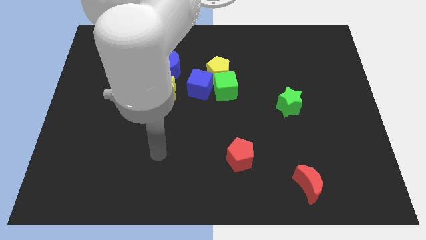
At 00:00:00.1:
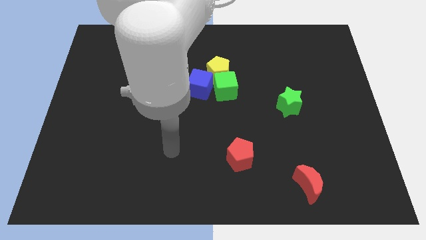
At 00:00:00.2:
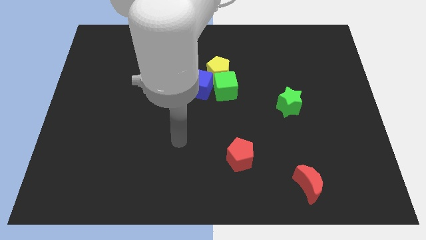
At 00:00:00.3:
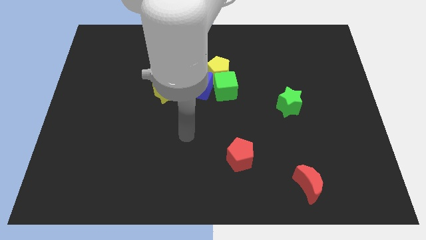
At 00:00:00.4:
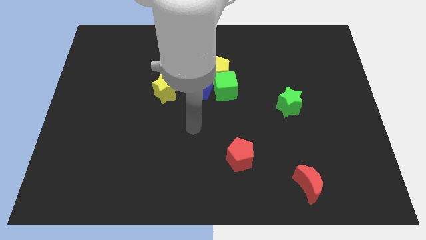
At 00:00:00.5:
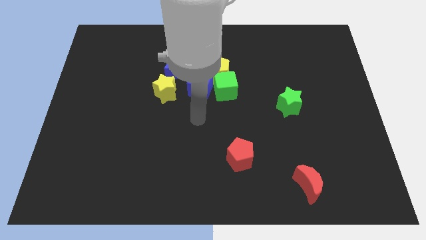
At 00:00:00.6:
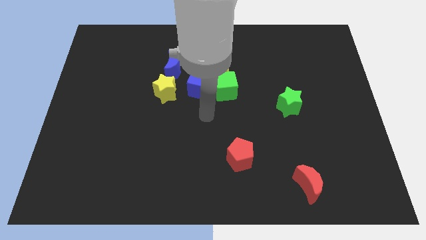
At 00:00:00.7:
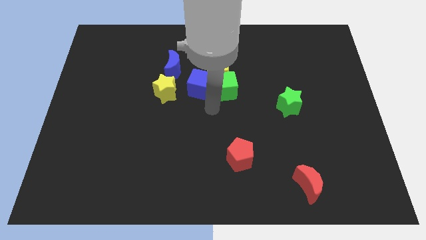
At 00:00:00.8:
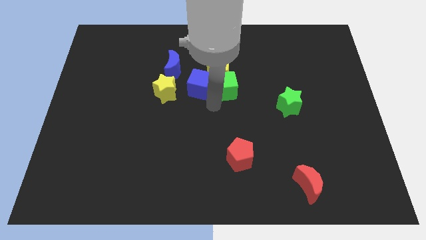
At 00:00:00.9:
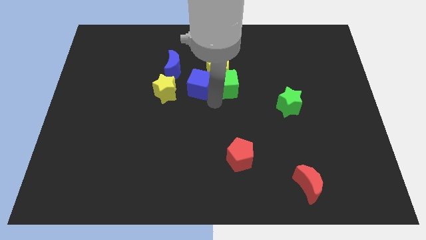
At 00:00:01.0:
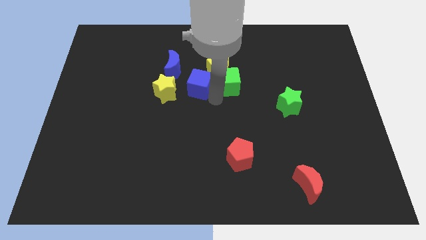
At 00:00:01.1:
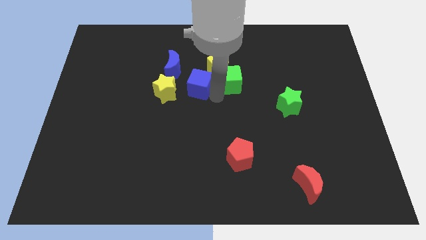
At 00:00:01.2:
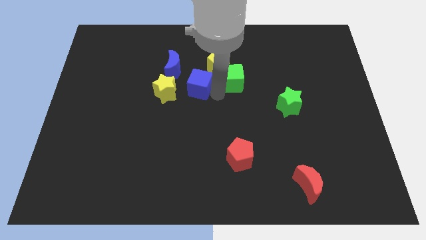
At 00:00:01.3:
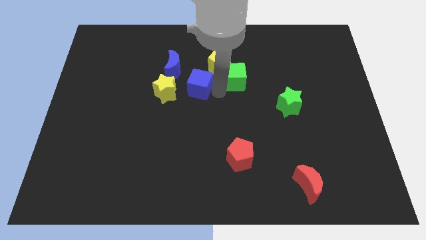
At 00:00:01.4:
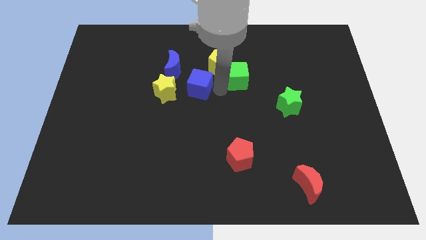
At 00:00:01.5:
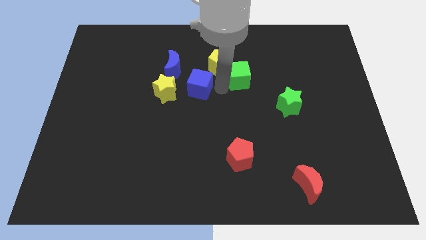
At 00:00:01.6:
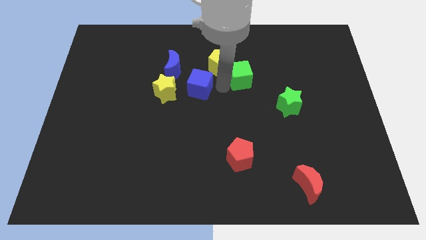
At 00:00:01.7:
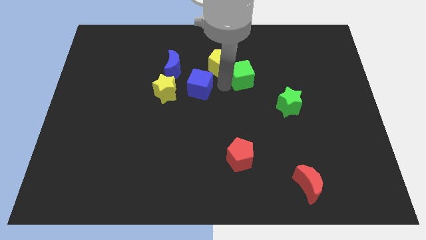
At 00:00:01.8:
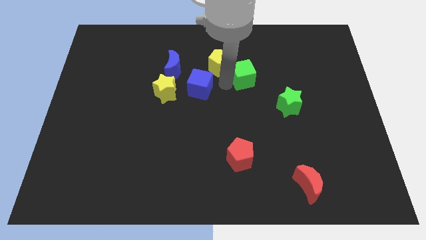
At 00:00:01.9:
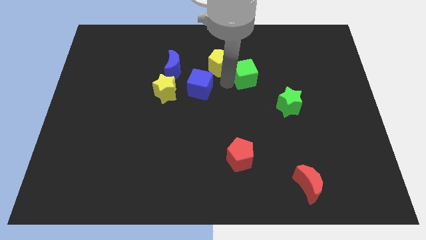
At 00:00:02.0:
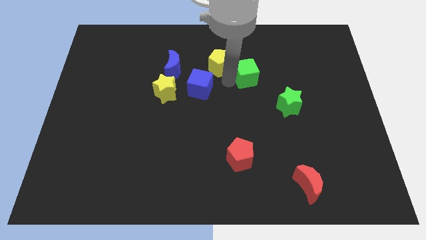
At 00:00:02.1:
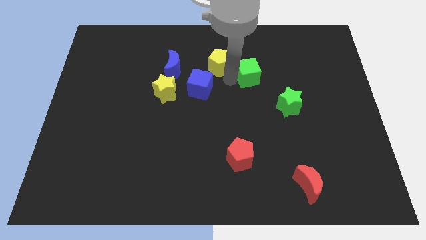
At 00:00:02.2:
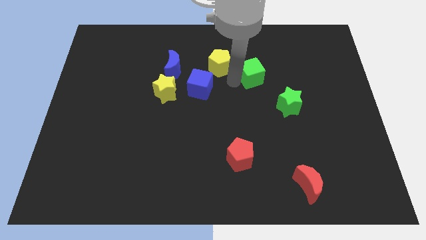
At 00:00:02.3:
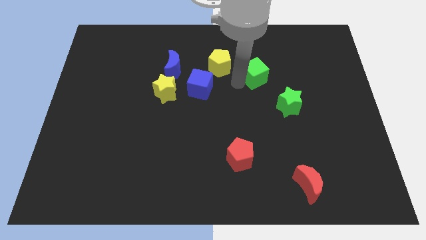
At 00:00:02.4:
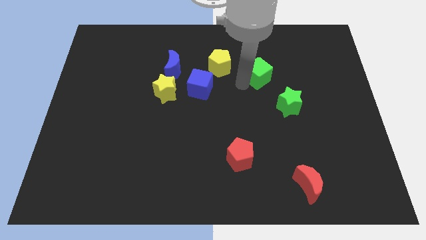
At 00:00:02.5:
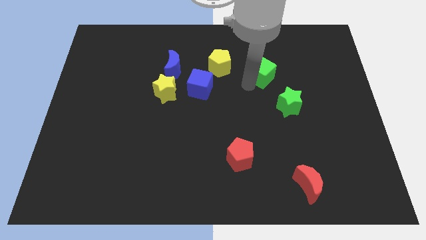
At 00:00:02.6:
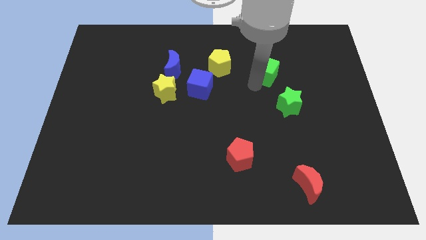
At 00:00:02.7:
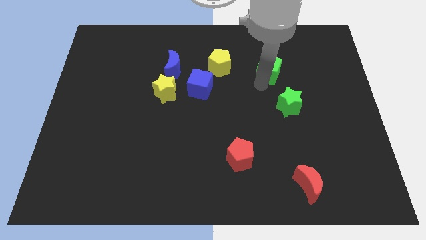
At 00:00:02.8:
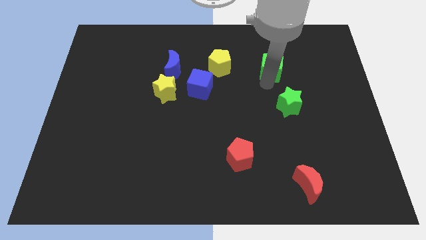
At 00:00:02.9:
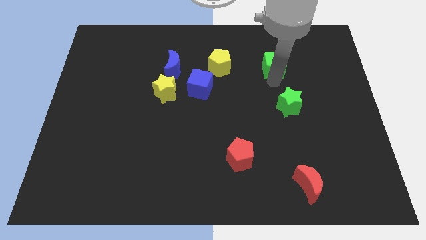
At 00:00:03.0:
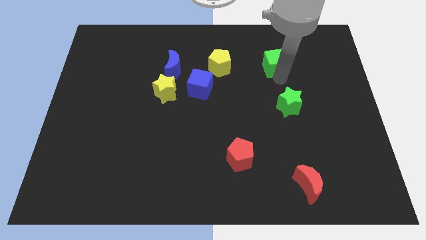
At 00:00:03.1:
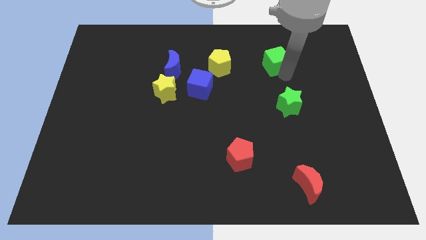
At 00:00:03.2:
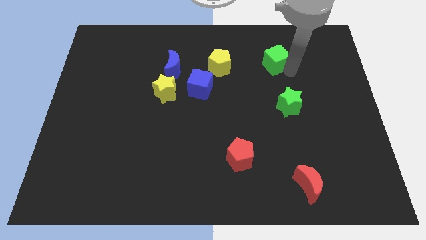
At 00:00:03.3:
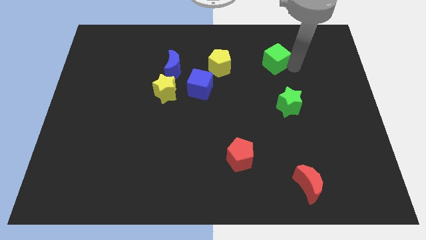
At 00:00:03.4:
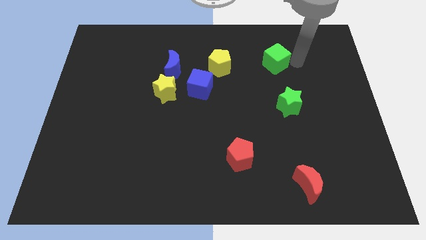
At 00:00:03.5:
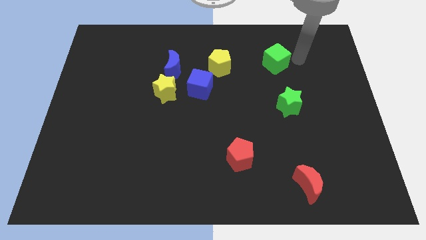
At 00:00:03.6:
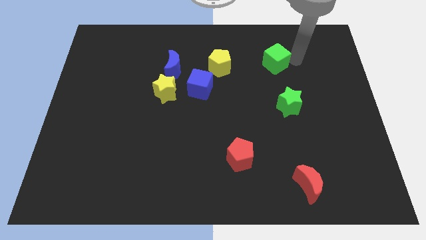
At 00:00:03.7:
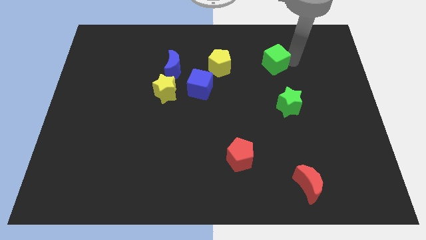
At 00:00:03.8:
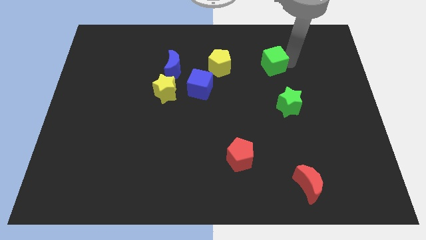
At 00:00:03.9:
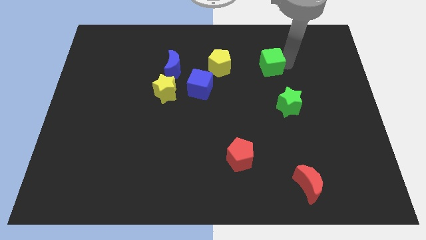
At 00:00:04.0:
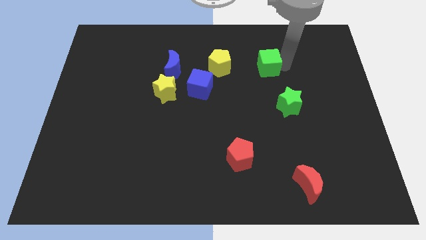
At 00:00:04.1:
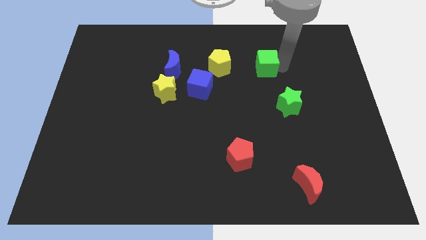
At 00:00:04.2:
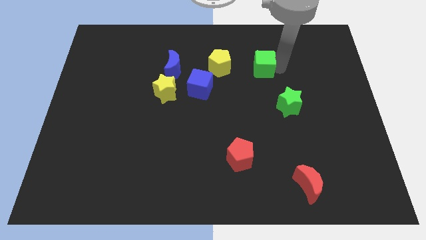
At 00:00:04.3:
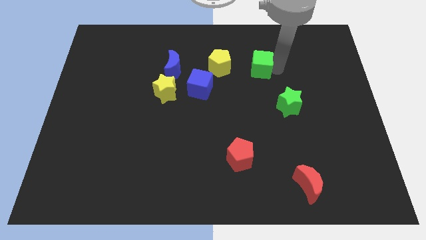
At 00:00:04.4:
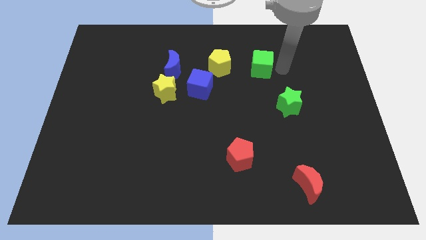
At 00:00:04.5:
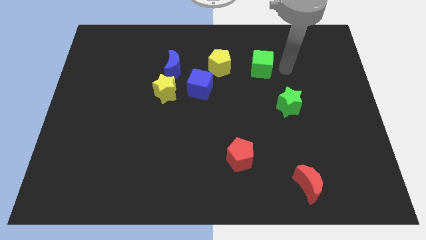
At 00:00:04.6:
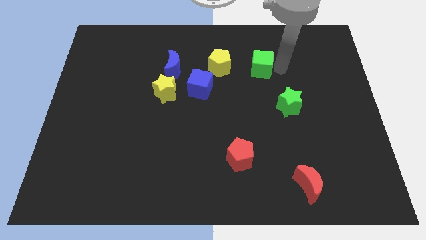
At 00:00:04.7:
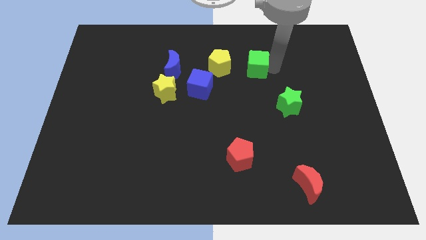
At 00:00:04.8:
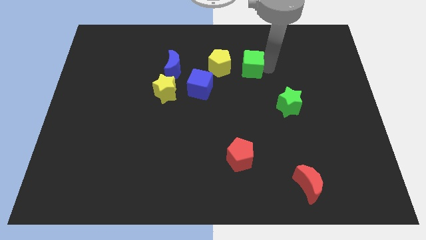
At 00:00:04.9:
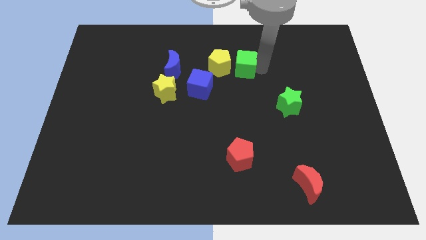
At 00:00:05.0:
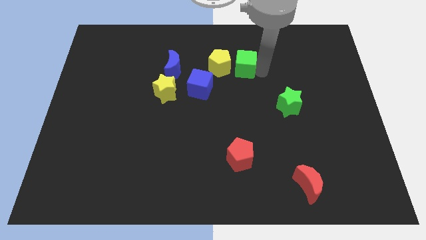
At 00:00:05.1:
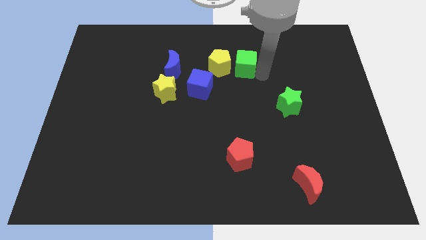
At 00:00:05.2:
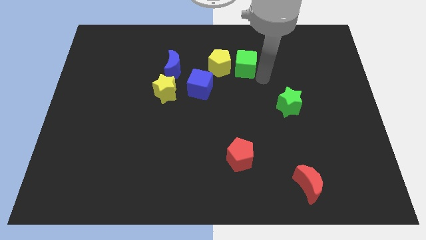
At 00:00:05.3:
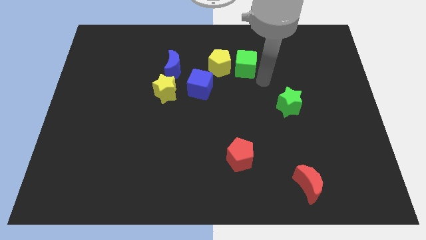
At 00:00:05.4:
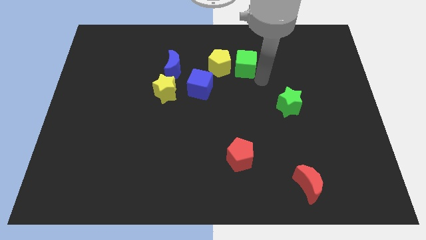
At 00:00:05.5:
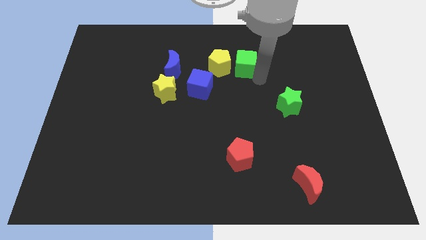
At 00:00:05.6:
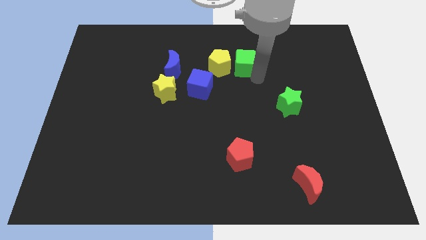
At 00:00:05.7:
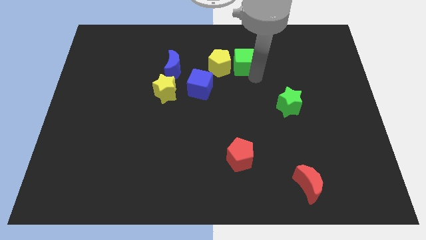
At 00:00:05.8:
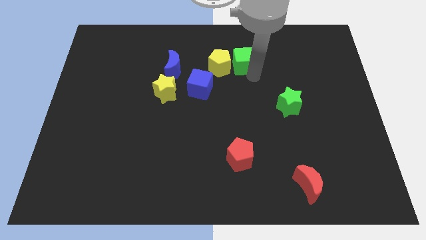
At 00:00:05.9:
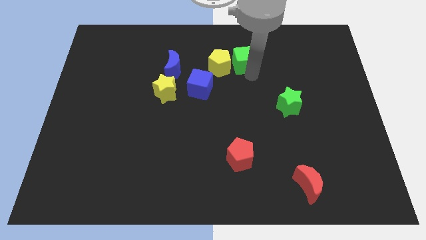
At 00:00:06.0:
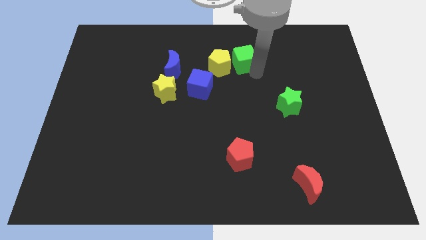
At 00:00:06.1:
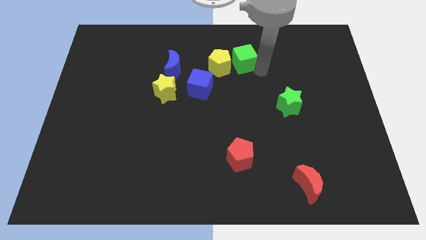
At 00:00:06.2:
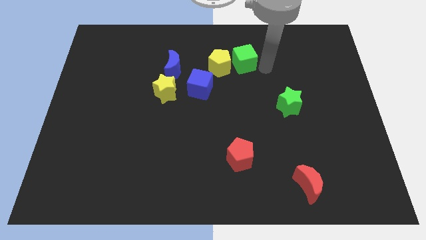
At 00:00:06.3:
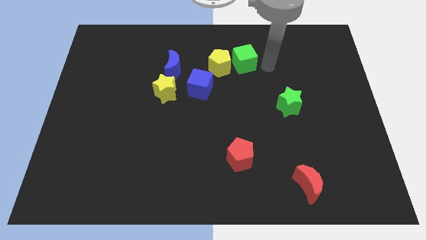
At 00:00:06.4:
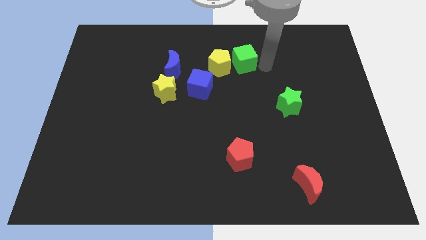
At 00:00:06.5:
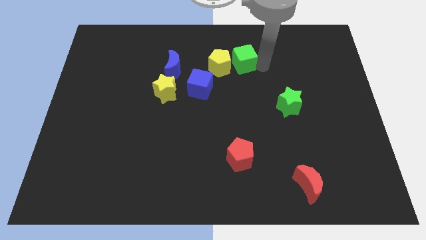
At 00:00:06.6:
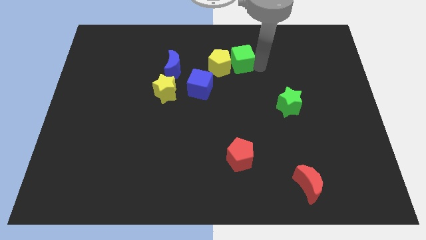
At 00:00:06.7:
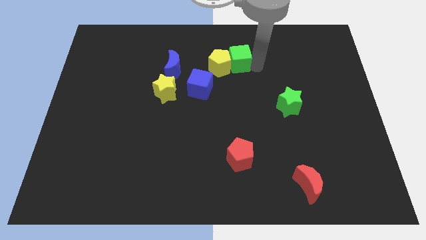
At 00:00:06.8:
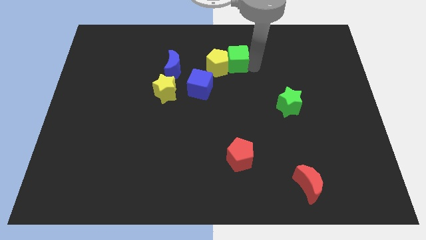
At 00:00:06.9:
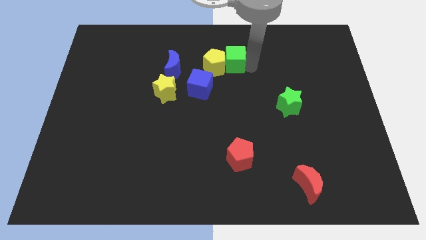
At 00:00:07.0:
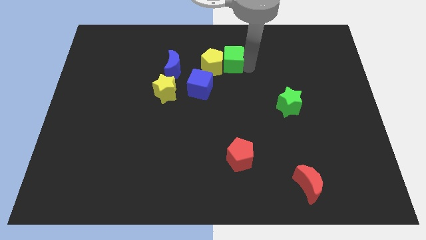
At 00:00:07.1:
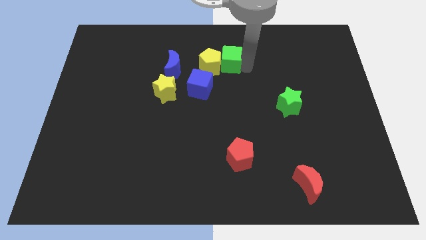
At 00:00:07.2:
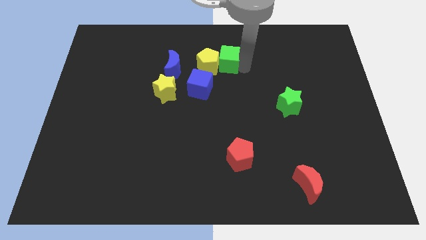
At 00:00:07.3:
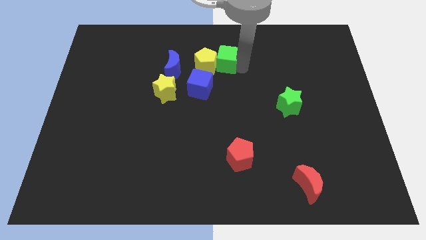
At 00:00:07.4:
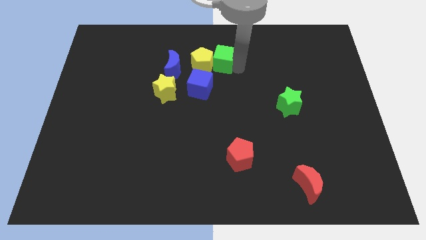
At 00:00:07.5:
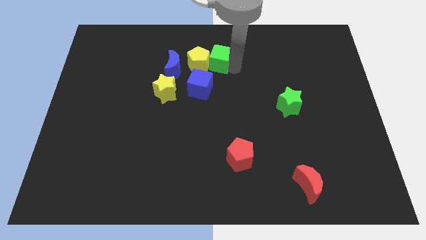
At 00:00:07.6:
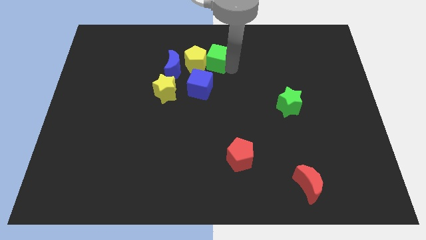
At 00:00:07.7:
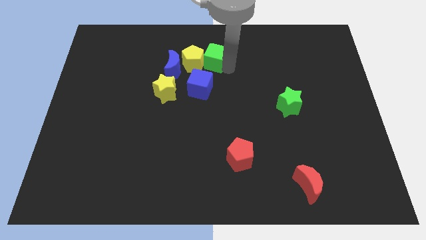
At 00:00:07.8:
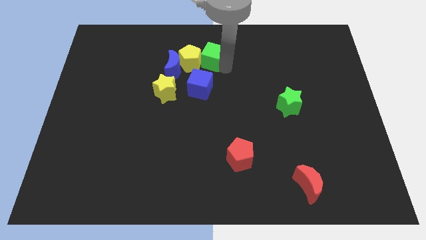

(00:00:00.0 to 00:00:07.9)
push the green cube to the top right side of the blue moon
